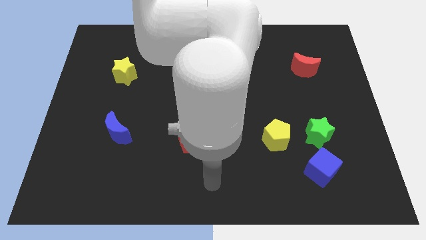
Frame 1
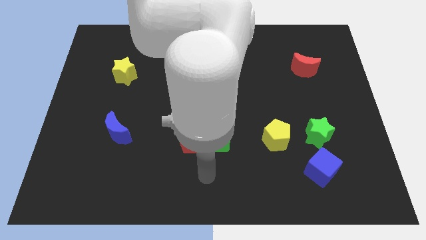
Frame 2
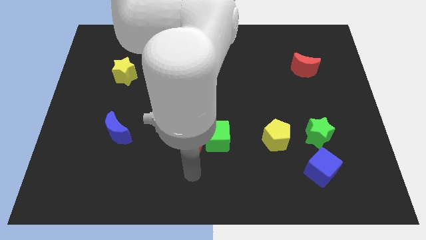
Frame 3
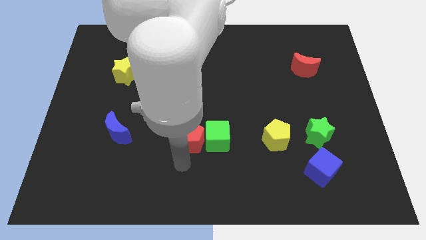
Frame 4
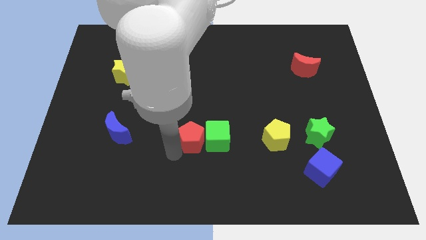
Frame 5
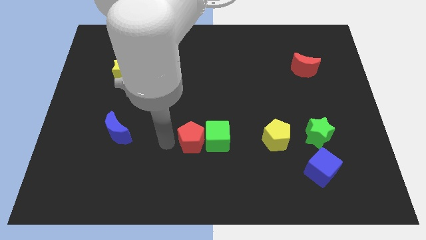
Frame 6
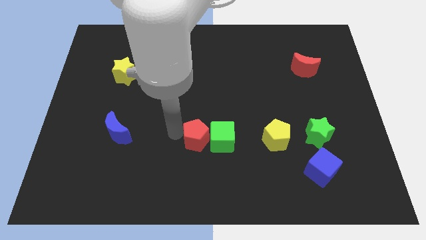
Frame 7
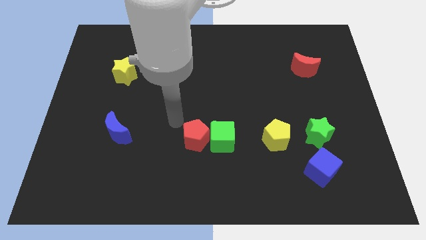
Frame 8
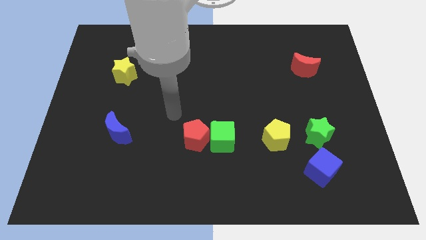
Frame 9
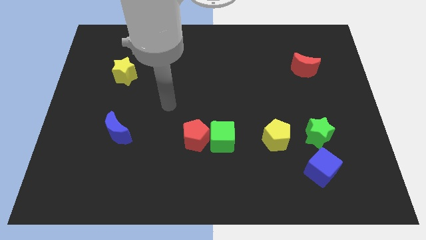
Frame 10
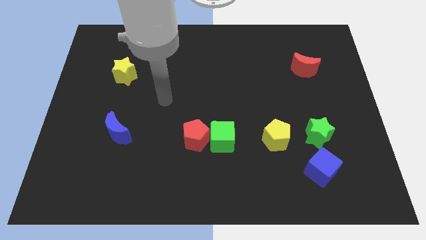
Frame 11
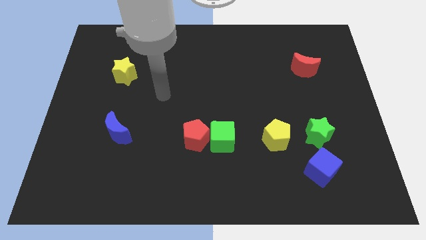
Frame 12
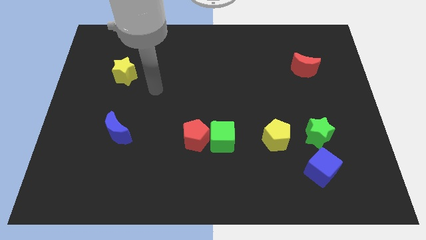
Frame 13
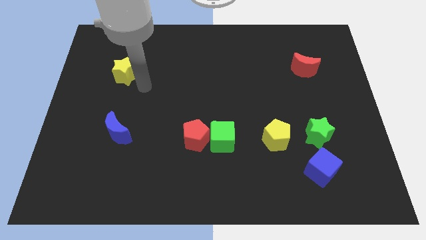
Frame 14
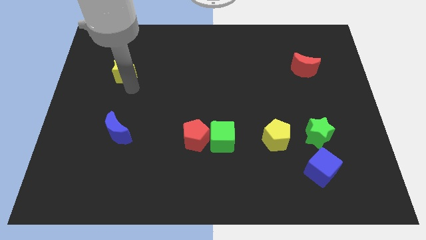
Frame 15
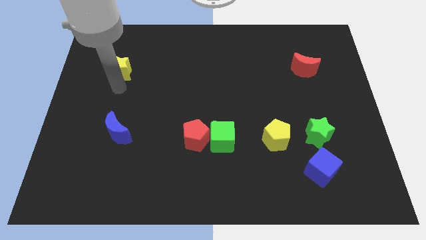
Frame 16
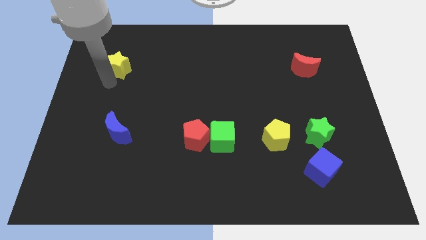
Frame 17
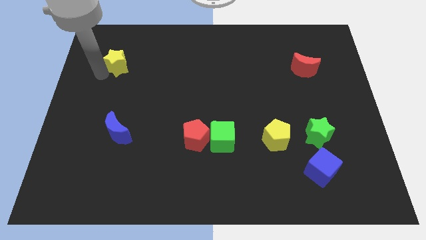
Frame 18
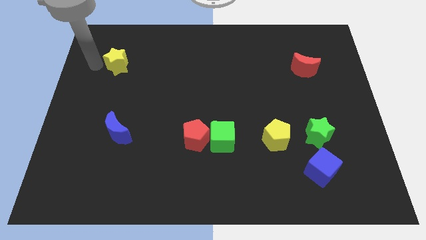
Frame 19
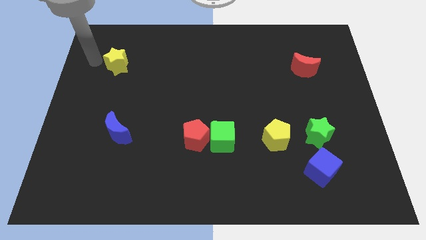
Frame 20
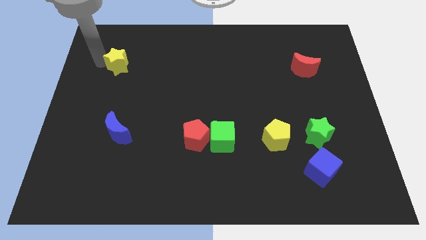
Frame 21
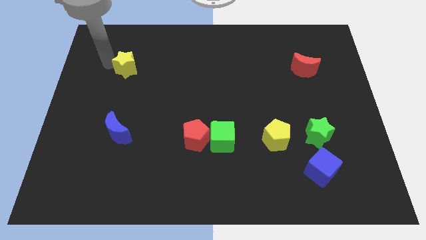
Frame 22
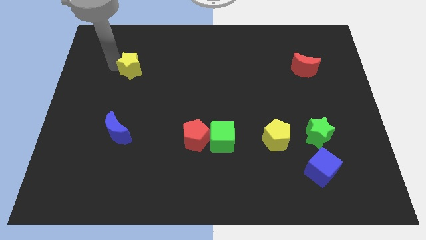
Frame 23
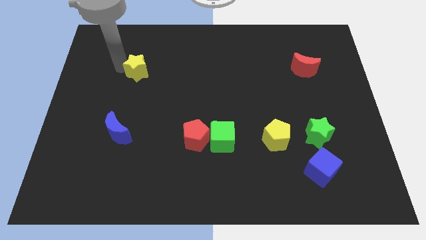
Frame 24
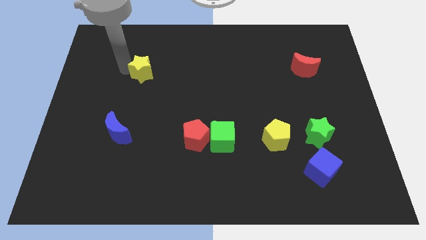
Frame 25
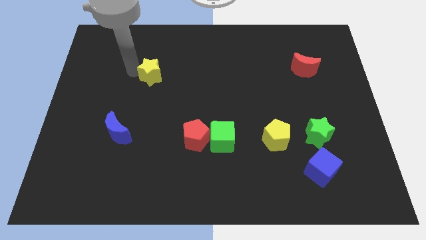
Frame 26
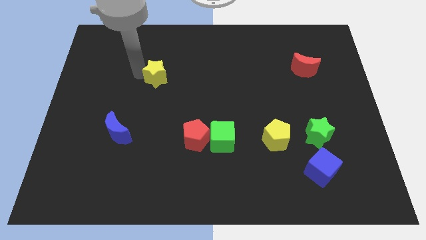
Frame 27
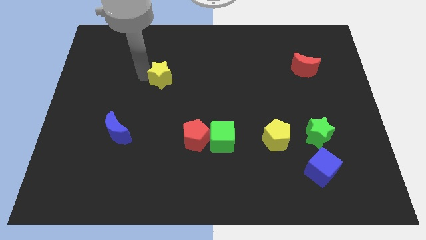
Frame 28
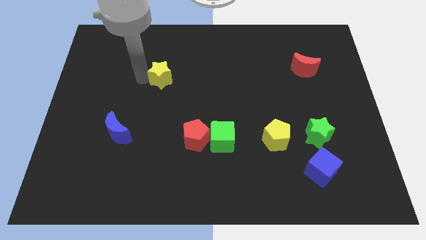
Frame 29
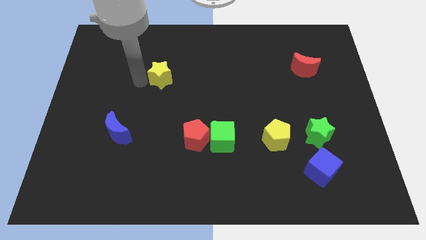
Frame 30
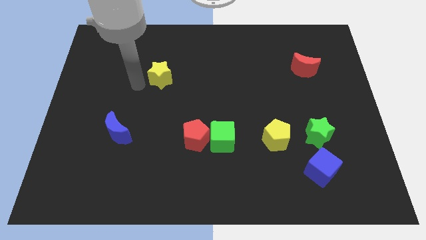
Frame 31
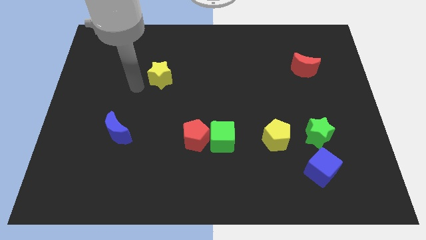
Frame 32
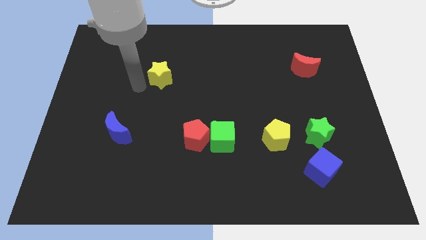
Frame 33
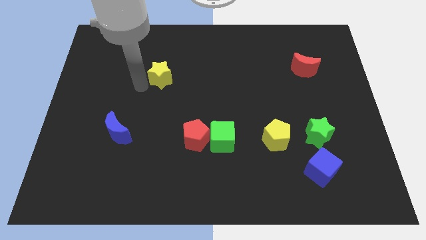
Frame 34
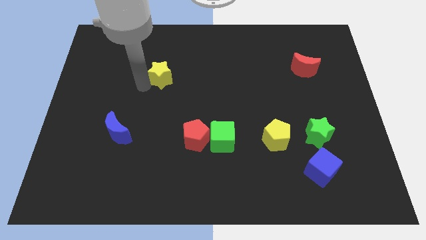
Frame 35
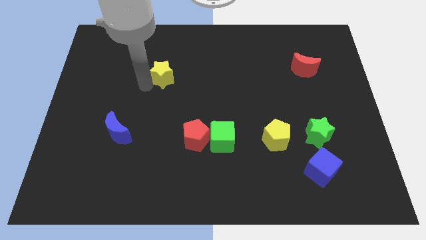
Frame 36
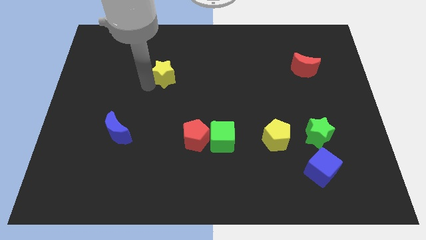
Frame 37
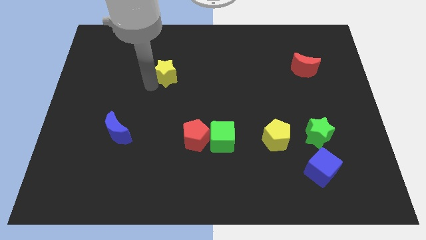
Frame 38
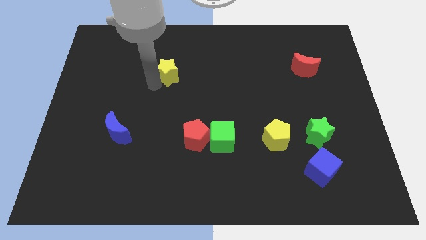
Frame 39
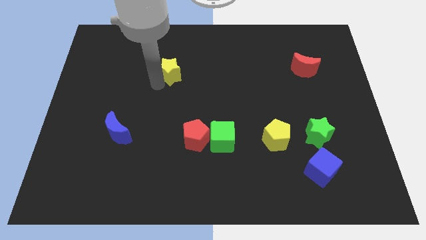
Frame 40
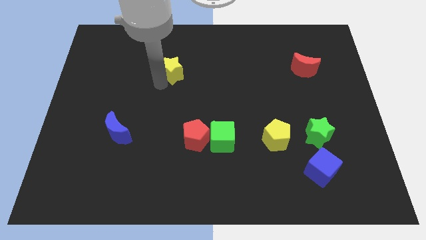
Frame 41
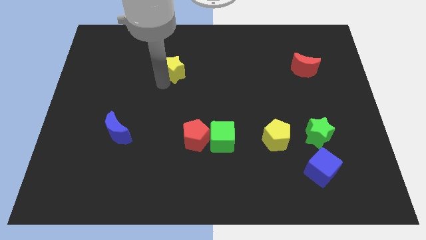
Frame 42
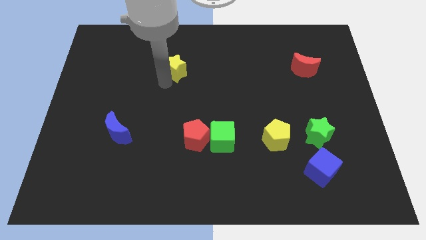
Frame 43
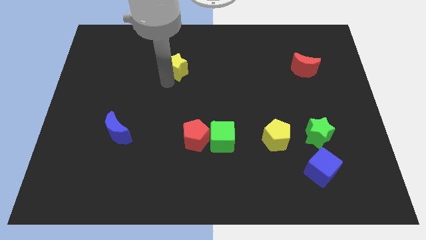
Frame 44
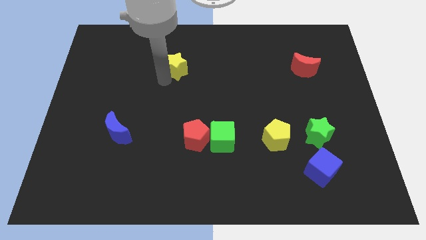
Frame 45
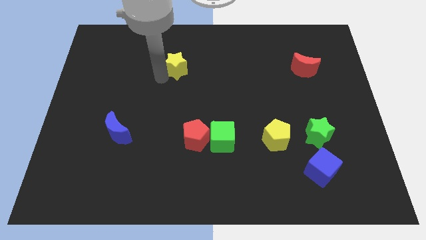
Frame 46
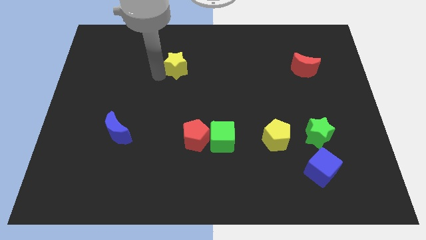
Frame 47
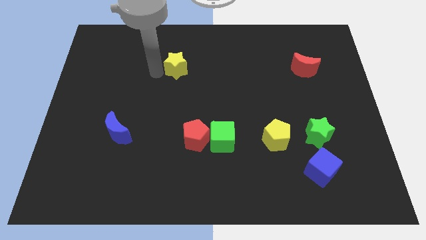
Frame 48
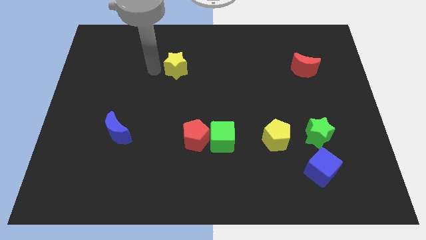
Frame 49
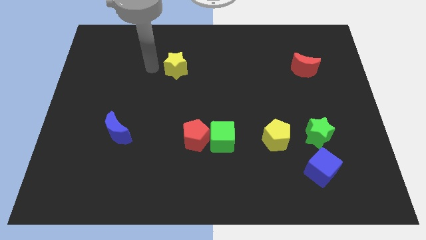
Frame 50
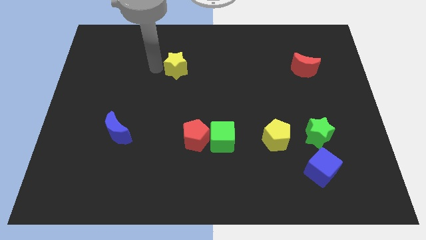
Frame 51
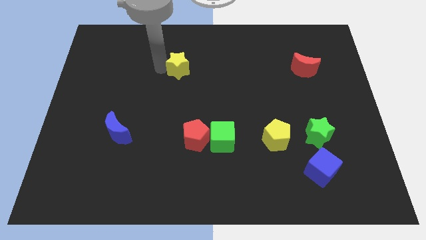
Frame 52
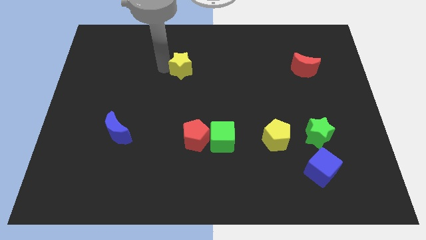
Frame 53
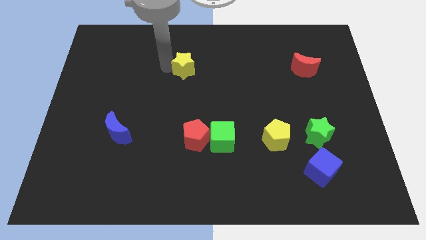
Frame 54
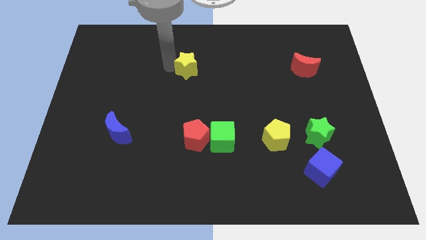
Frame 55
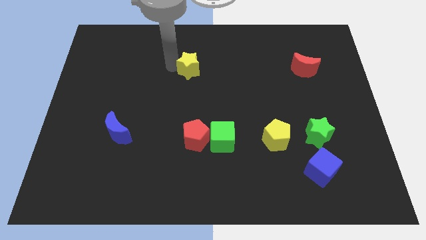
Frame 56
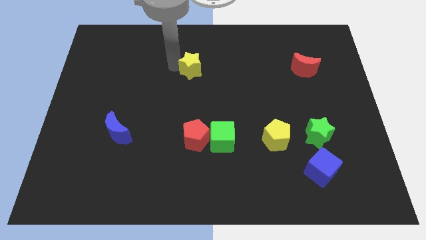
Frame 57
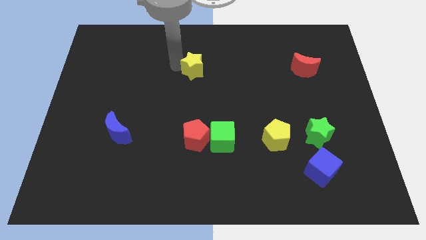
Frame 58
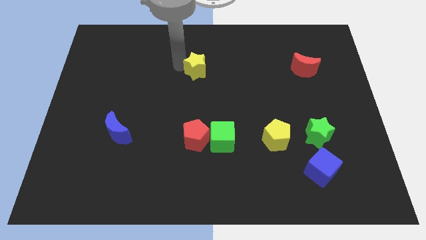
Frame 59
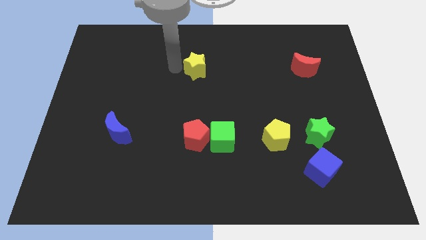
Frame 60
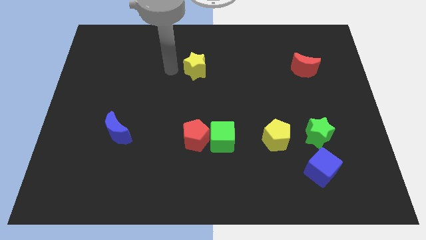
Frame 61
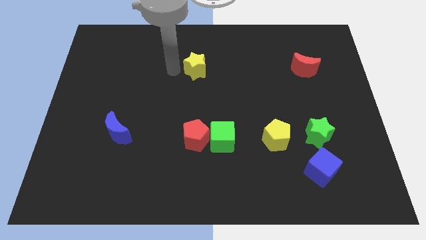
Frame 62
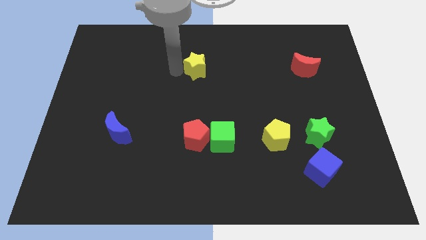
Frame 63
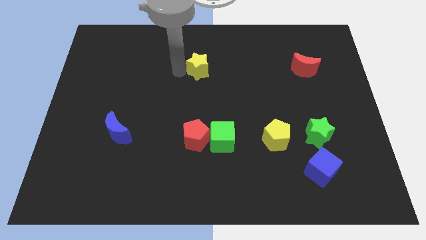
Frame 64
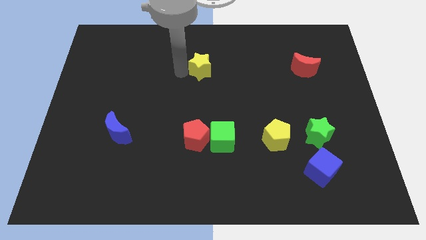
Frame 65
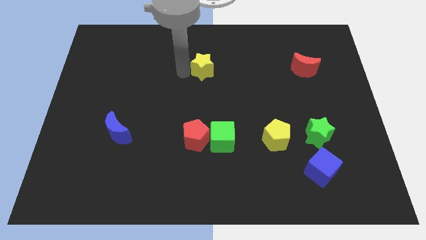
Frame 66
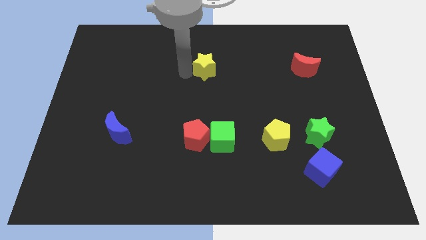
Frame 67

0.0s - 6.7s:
slide the yellow star to the right

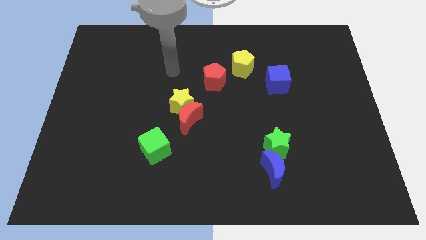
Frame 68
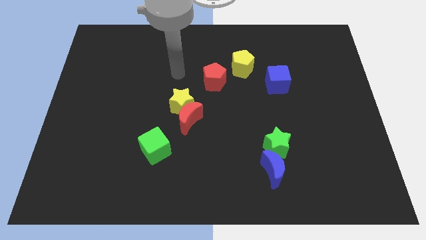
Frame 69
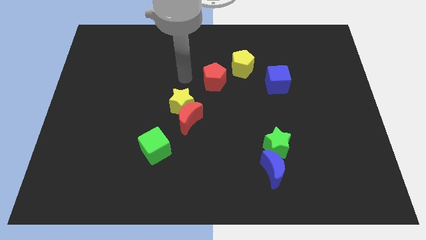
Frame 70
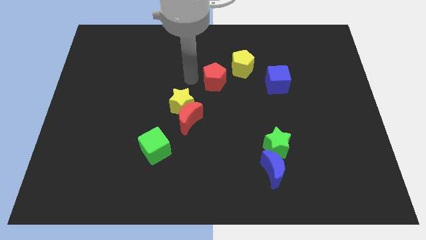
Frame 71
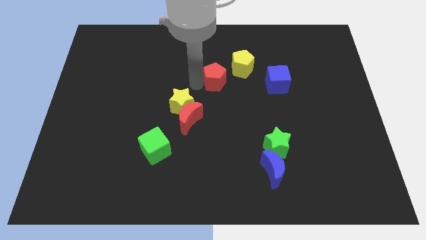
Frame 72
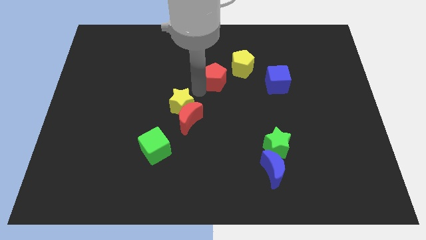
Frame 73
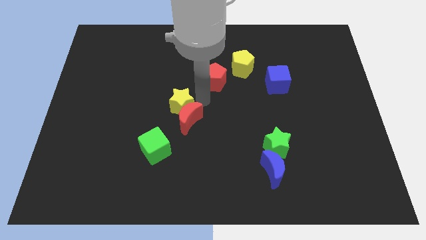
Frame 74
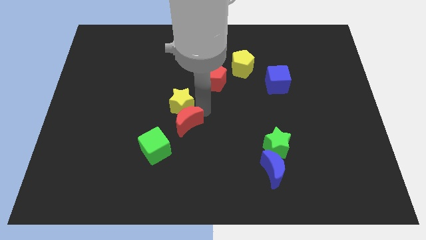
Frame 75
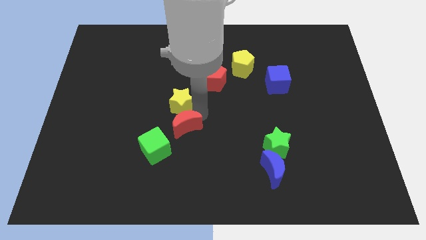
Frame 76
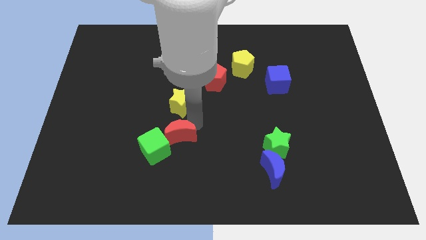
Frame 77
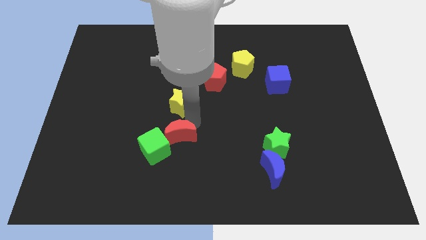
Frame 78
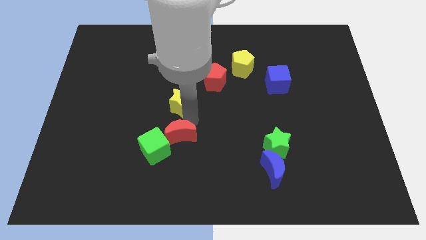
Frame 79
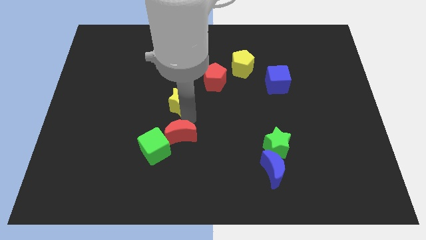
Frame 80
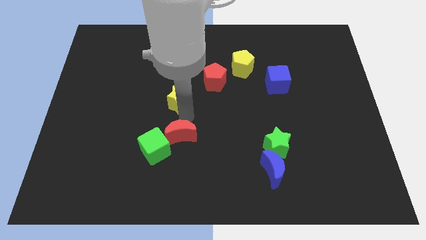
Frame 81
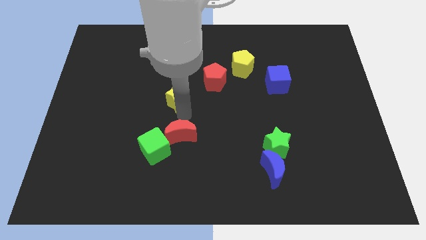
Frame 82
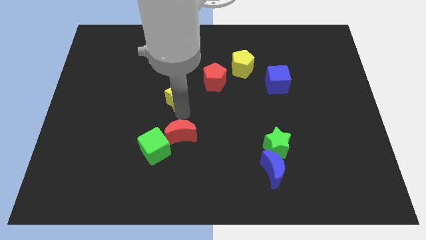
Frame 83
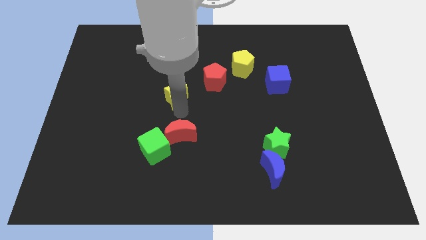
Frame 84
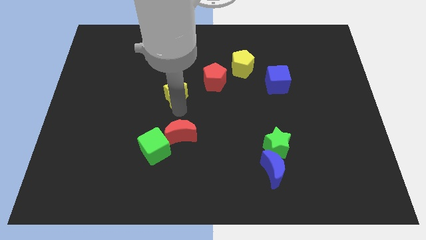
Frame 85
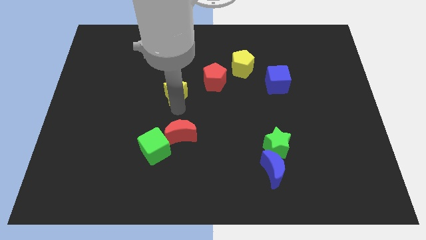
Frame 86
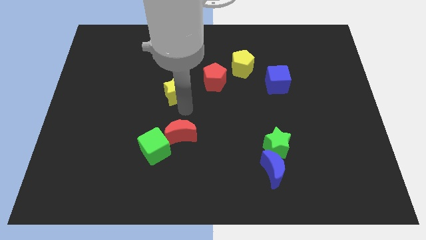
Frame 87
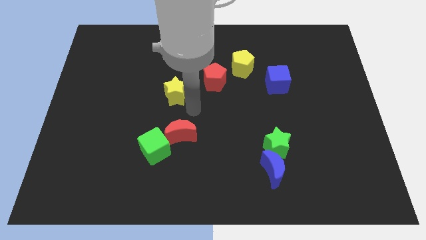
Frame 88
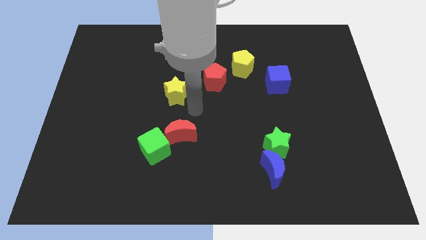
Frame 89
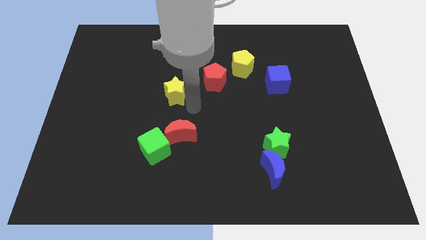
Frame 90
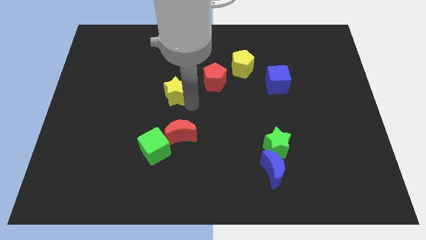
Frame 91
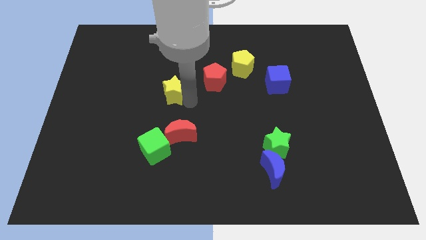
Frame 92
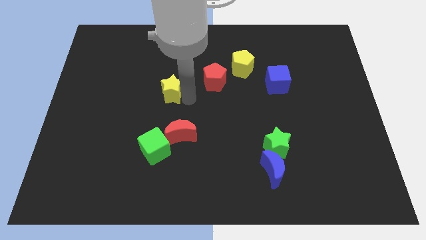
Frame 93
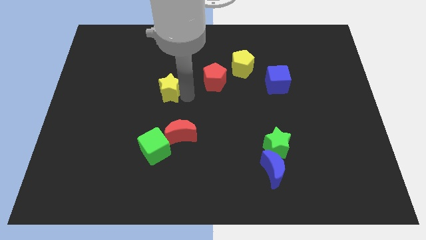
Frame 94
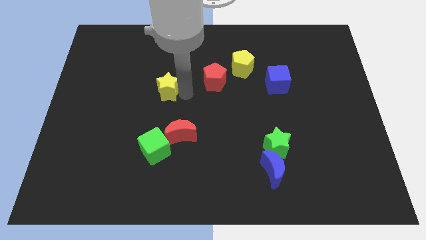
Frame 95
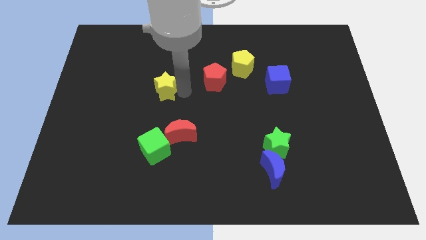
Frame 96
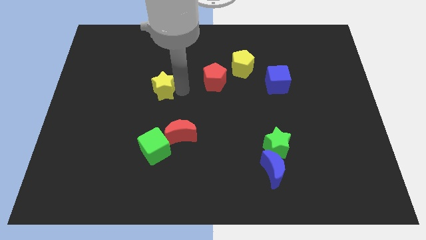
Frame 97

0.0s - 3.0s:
slightly move the yellow star diagonally up and left
